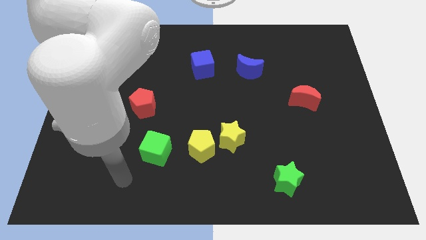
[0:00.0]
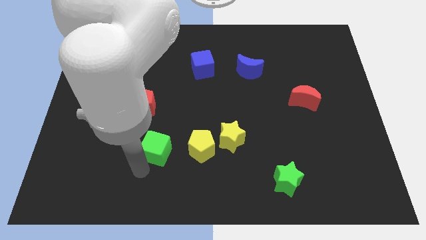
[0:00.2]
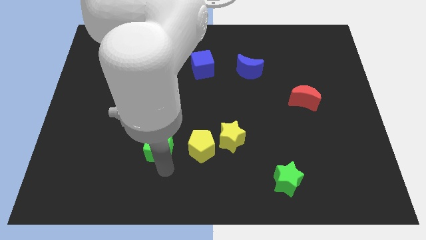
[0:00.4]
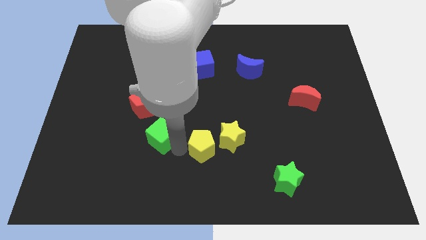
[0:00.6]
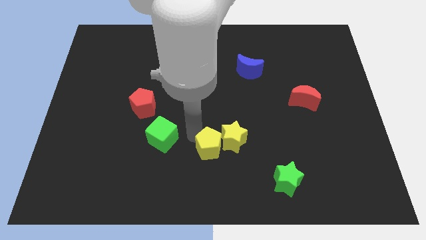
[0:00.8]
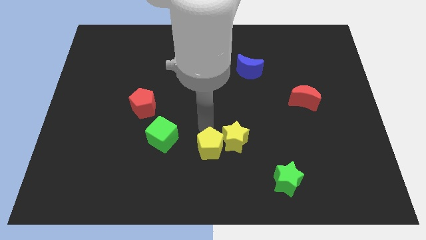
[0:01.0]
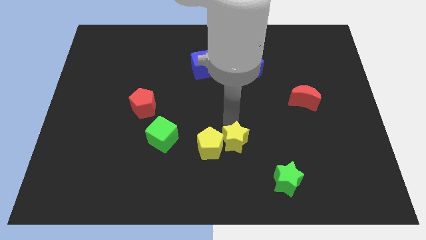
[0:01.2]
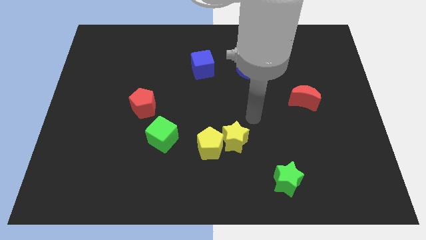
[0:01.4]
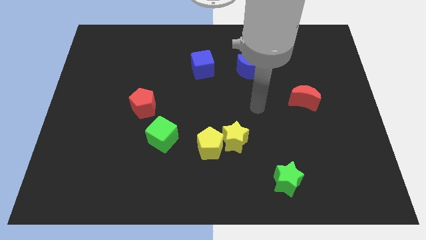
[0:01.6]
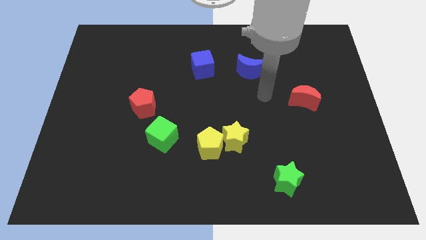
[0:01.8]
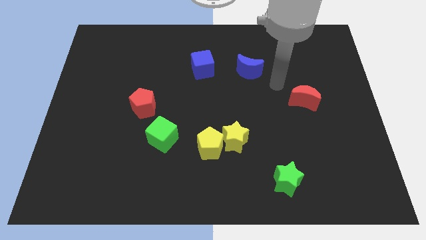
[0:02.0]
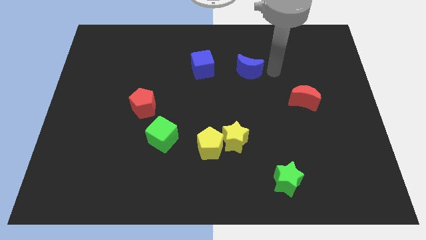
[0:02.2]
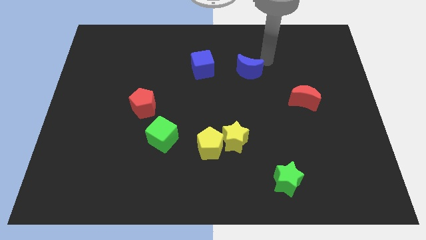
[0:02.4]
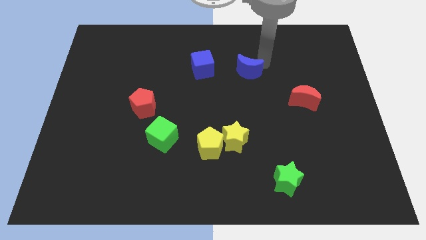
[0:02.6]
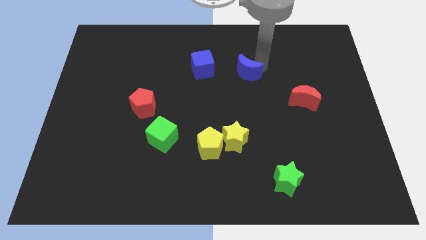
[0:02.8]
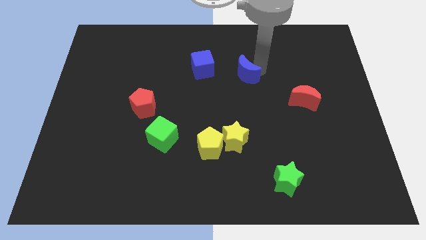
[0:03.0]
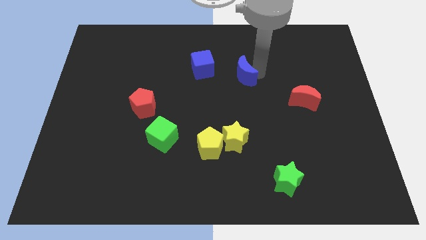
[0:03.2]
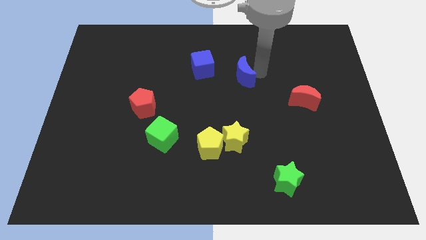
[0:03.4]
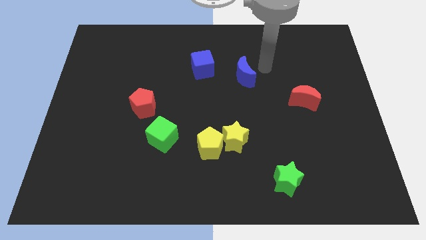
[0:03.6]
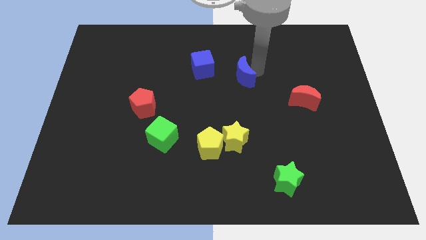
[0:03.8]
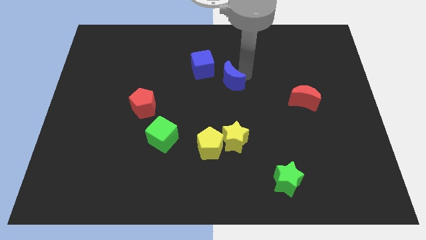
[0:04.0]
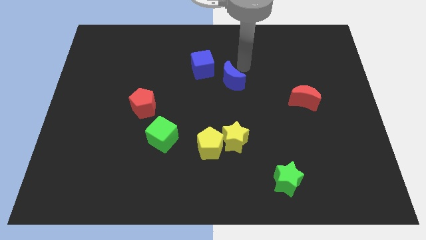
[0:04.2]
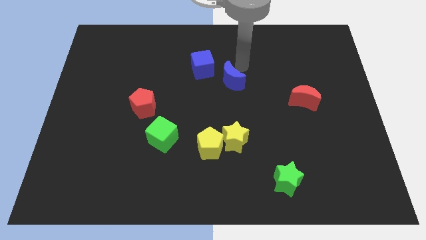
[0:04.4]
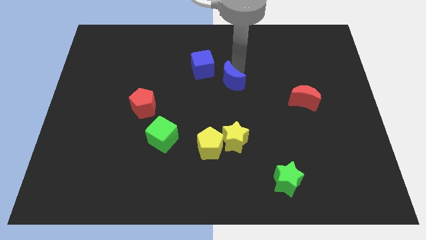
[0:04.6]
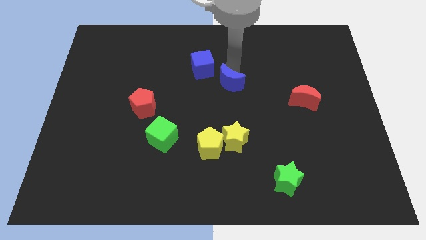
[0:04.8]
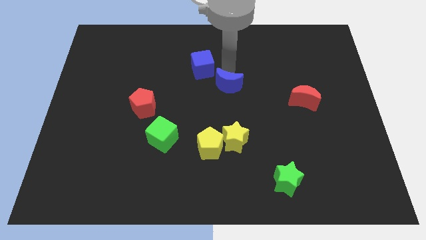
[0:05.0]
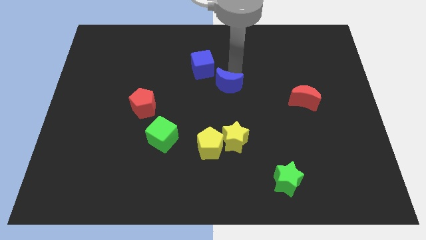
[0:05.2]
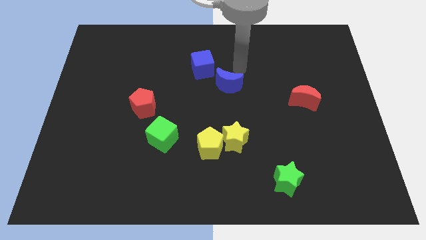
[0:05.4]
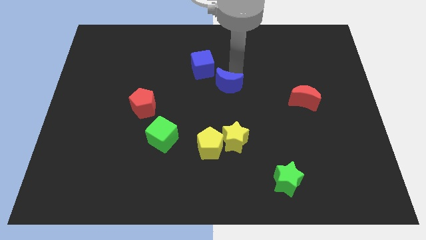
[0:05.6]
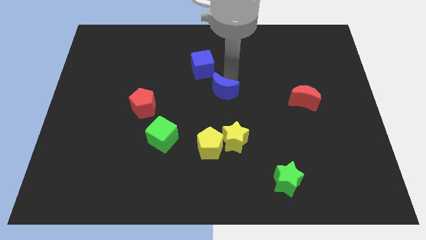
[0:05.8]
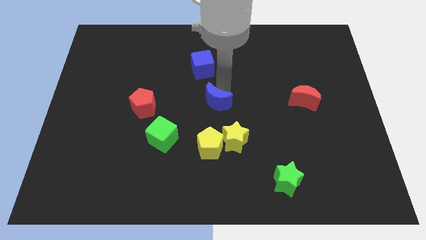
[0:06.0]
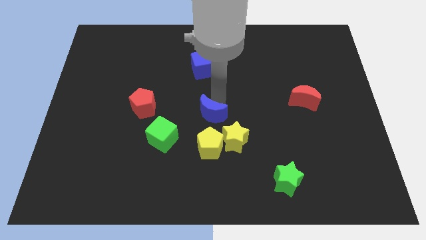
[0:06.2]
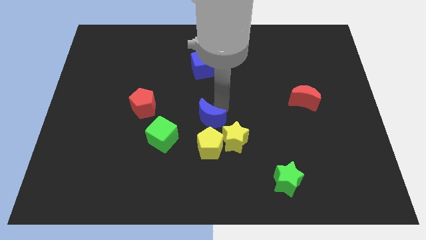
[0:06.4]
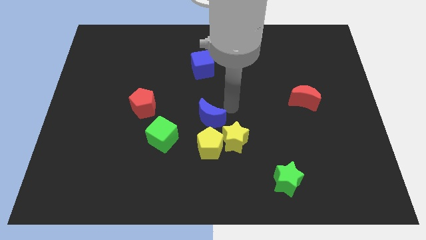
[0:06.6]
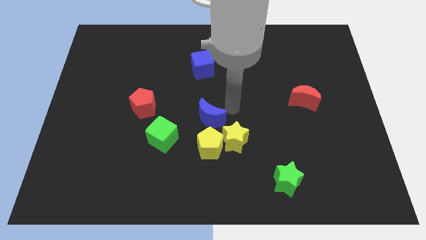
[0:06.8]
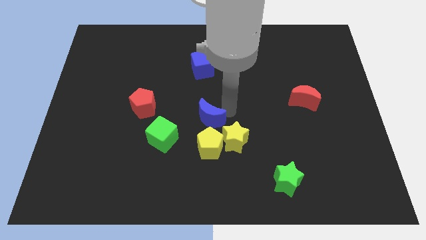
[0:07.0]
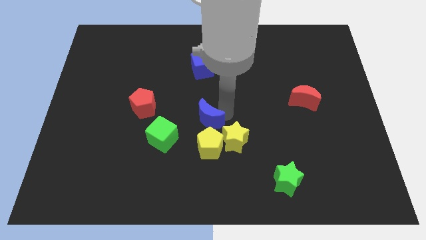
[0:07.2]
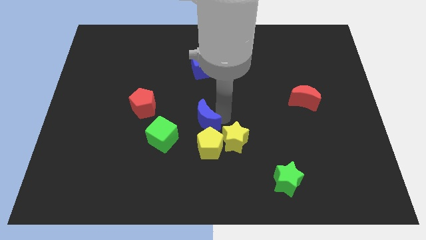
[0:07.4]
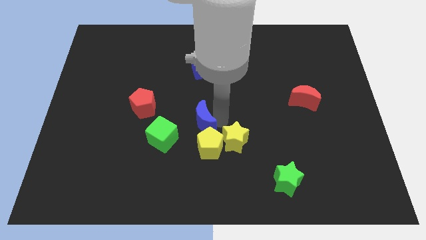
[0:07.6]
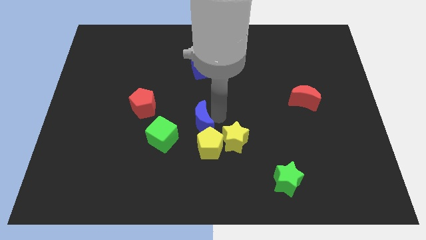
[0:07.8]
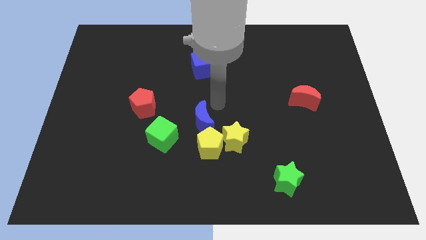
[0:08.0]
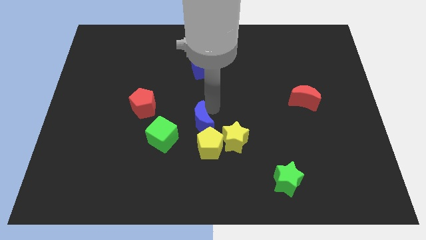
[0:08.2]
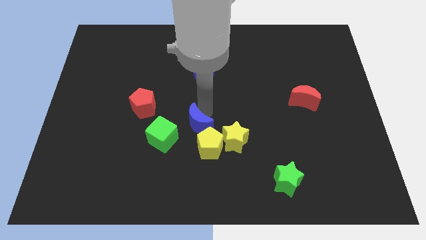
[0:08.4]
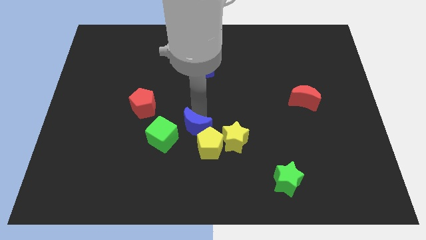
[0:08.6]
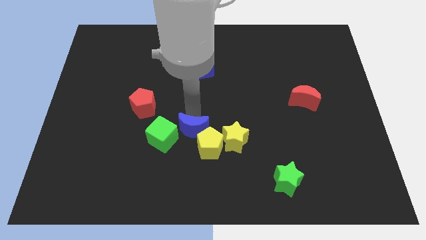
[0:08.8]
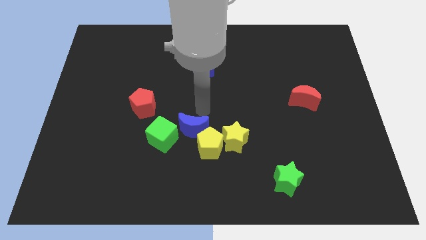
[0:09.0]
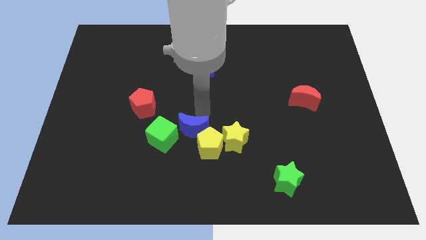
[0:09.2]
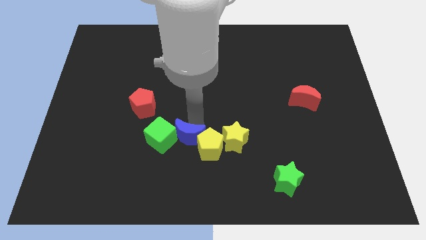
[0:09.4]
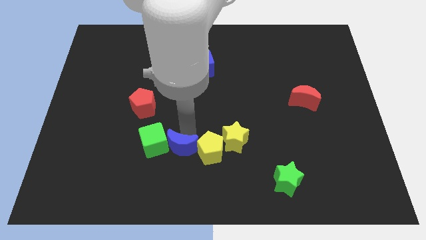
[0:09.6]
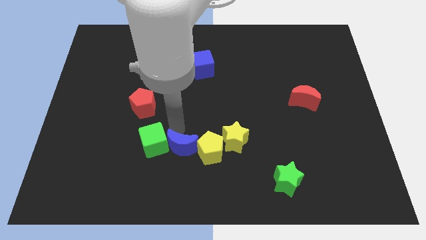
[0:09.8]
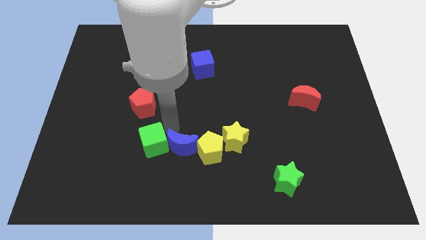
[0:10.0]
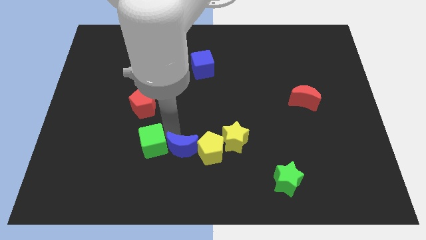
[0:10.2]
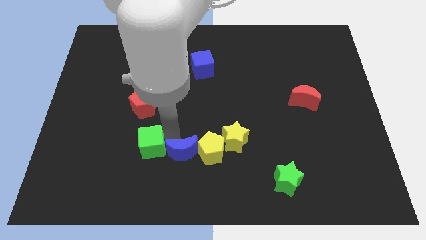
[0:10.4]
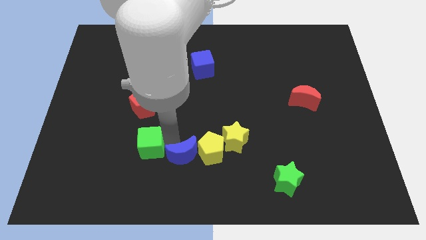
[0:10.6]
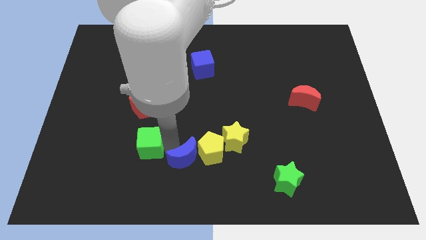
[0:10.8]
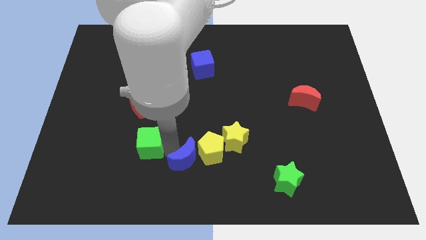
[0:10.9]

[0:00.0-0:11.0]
put the blue moon to the bottom left side of the yellow star

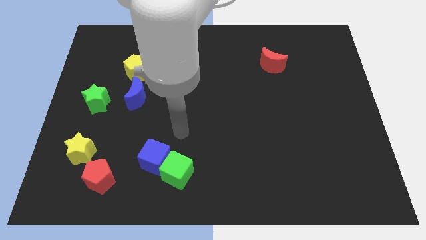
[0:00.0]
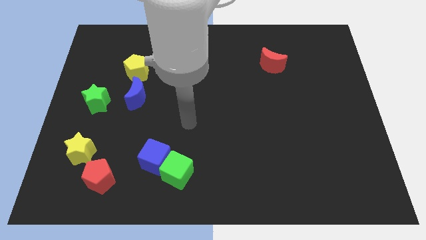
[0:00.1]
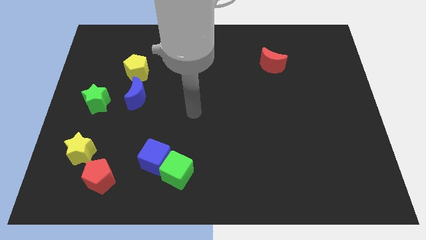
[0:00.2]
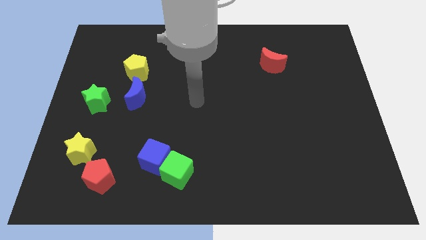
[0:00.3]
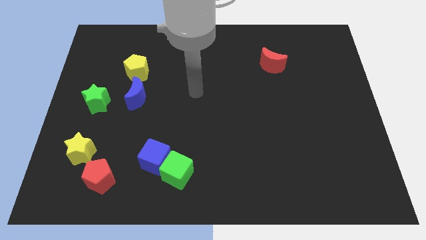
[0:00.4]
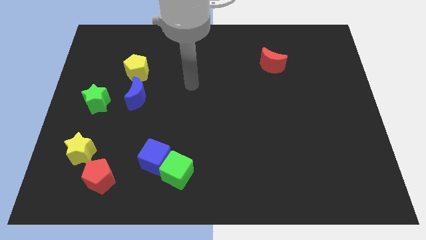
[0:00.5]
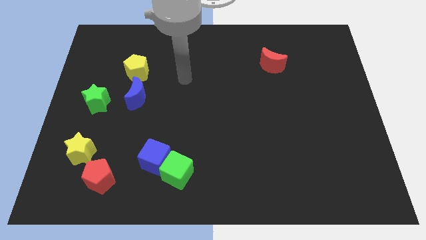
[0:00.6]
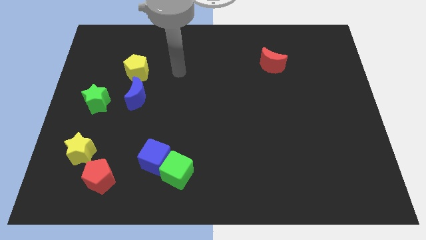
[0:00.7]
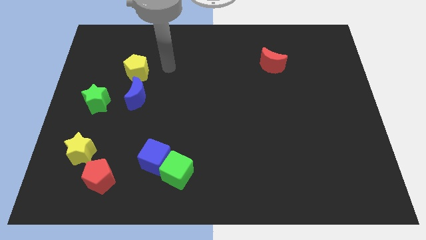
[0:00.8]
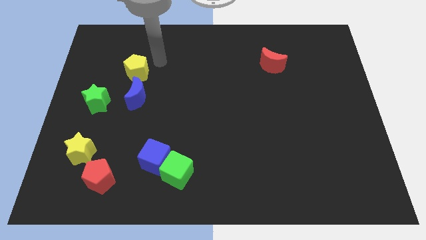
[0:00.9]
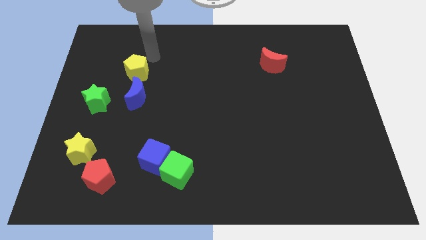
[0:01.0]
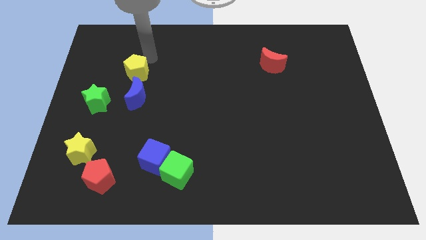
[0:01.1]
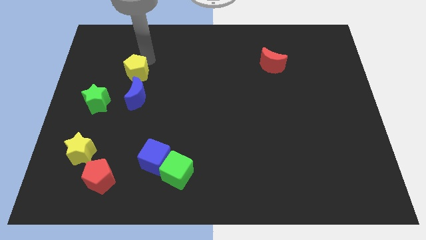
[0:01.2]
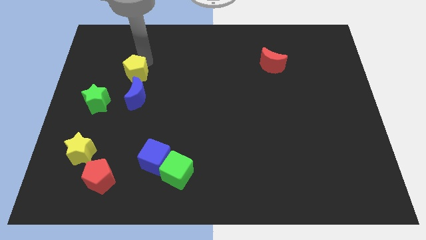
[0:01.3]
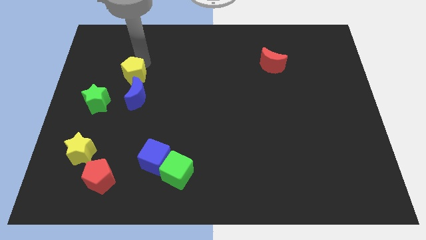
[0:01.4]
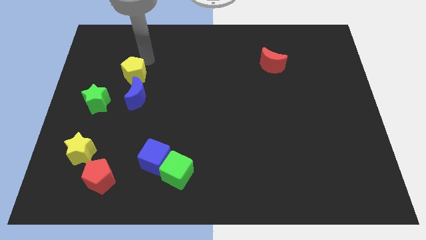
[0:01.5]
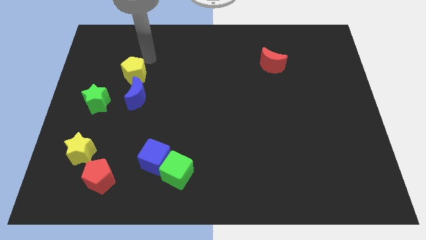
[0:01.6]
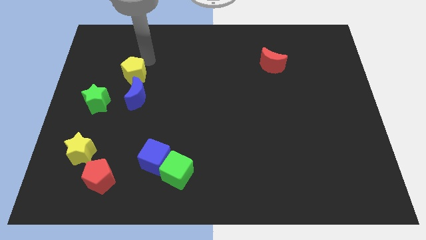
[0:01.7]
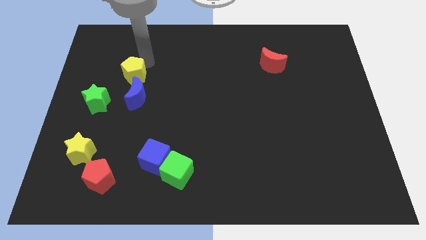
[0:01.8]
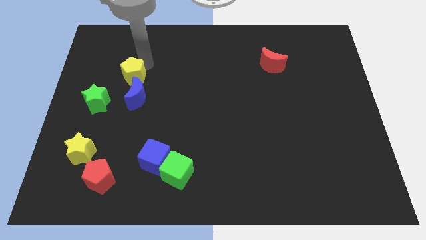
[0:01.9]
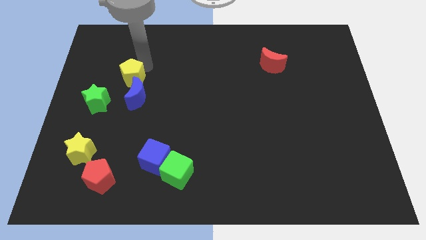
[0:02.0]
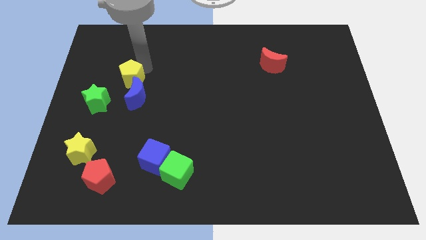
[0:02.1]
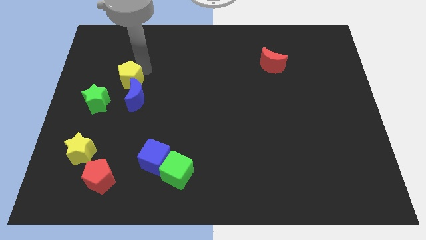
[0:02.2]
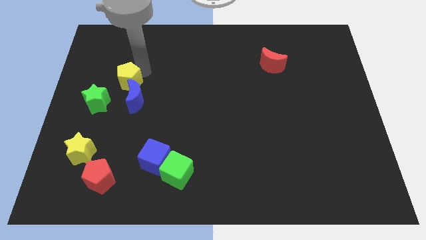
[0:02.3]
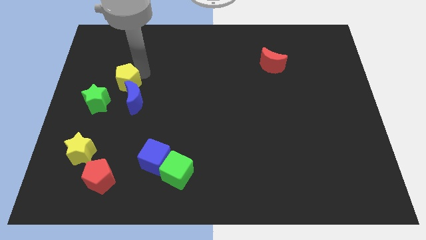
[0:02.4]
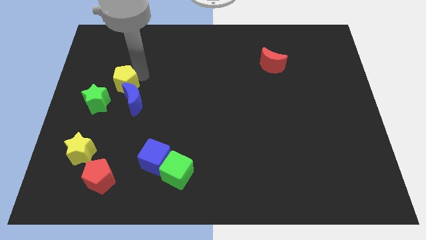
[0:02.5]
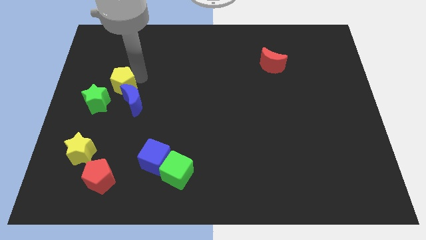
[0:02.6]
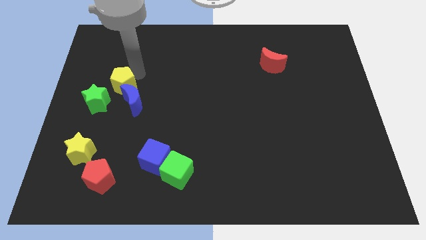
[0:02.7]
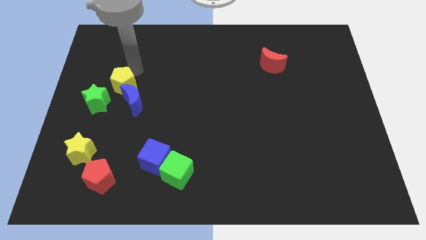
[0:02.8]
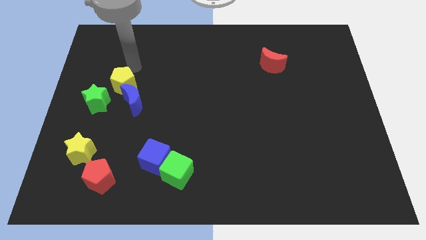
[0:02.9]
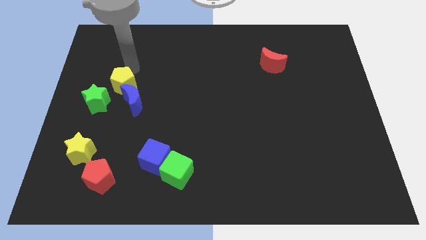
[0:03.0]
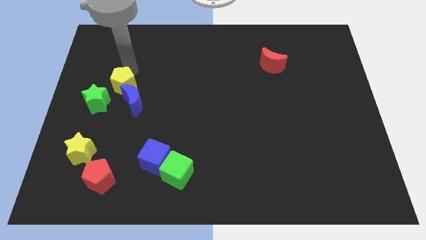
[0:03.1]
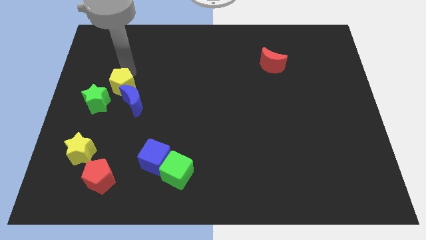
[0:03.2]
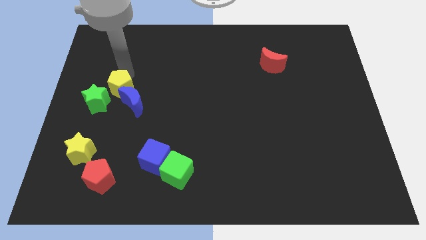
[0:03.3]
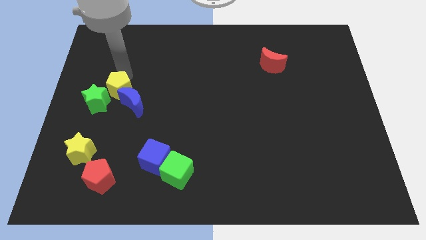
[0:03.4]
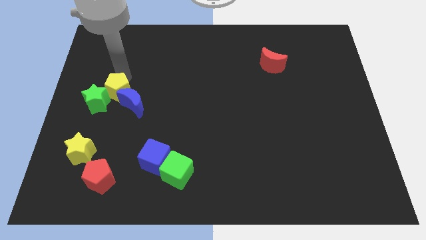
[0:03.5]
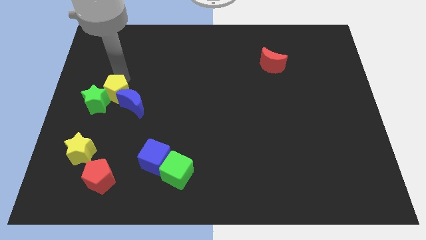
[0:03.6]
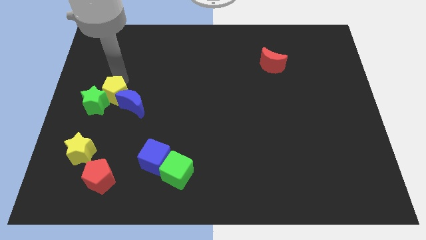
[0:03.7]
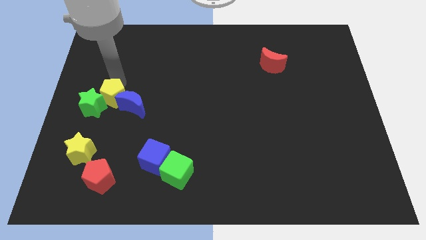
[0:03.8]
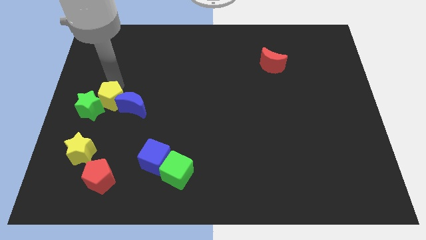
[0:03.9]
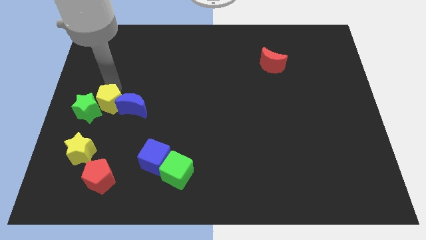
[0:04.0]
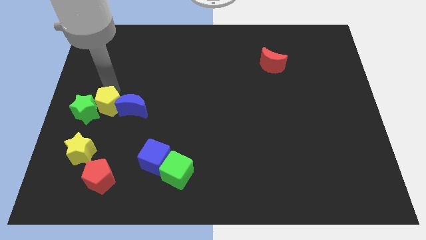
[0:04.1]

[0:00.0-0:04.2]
slide the yellow pentagon diagonally down and to the right of the green star
